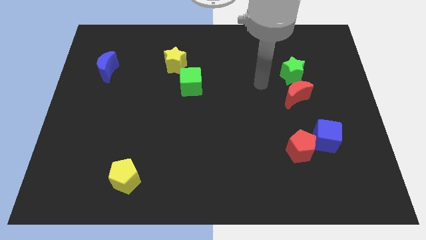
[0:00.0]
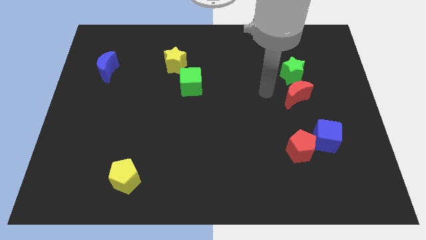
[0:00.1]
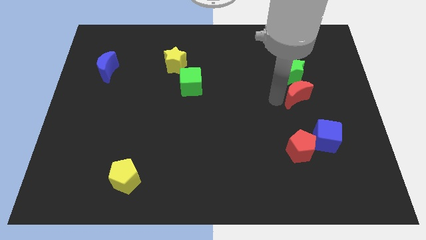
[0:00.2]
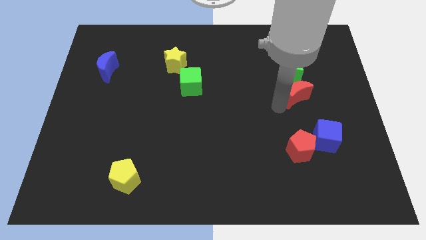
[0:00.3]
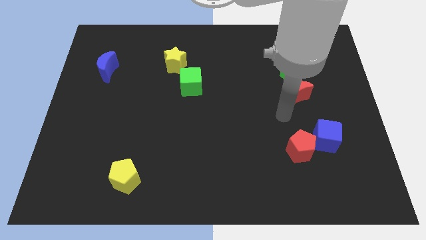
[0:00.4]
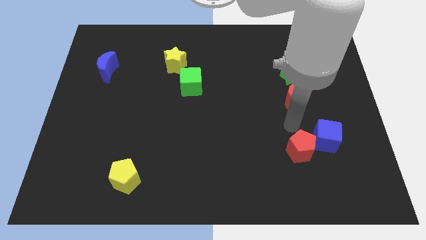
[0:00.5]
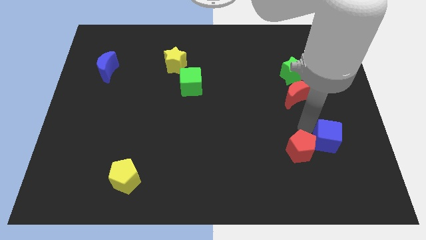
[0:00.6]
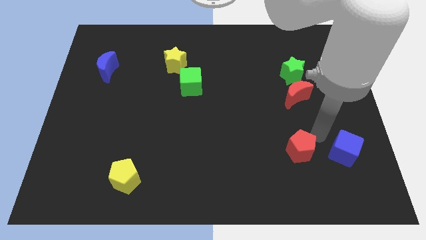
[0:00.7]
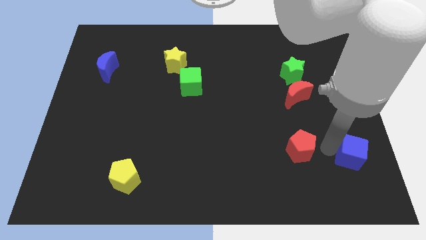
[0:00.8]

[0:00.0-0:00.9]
pull the red pentagon apart from the blue cube

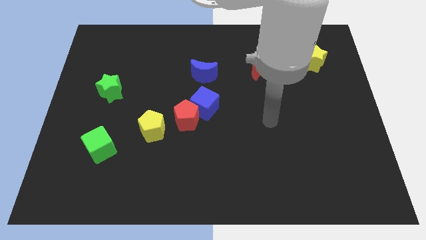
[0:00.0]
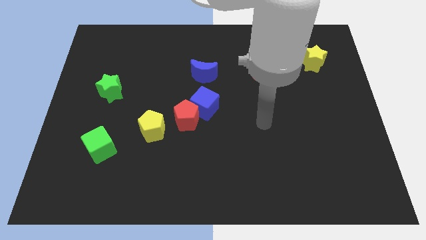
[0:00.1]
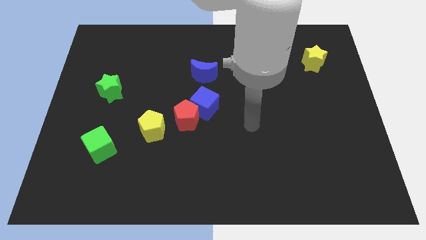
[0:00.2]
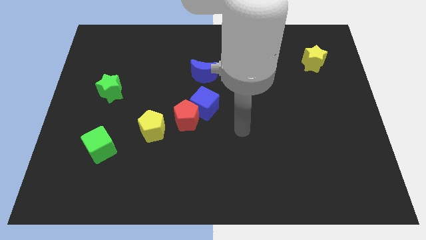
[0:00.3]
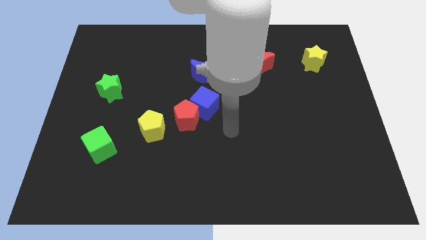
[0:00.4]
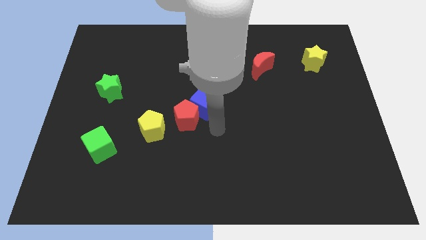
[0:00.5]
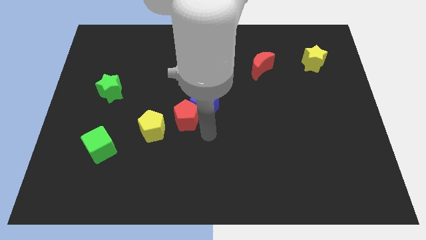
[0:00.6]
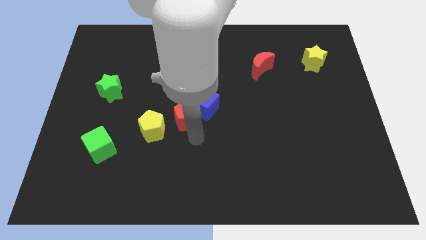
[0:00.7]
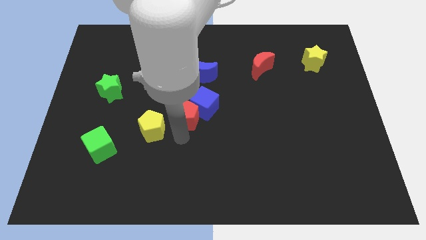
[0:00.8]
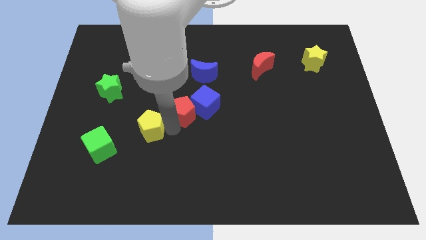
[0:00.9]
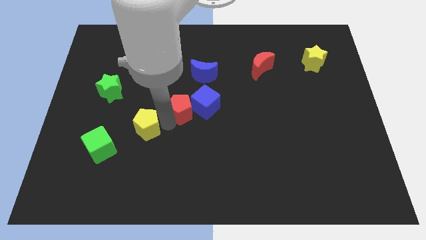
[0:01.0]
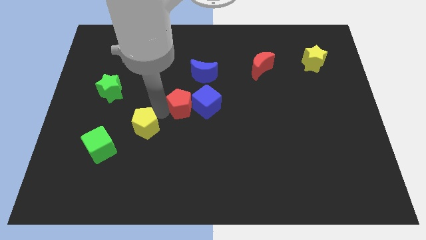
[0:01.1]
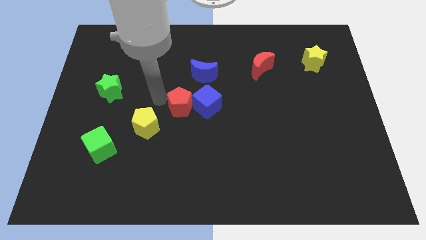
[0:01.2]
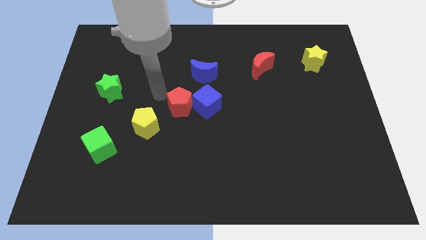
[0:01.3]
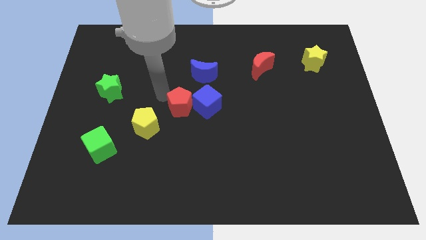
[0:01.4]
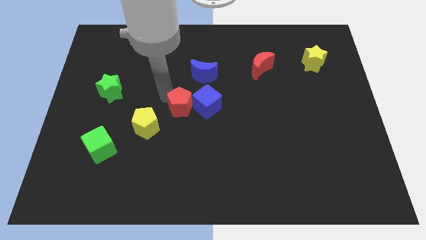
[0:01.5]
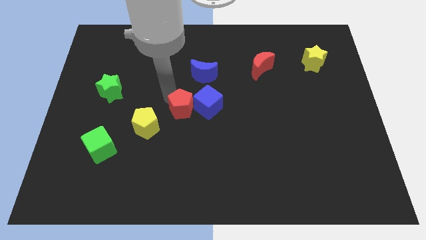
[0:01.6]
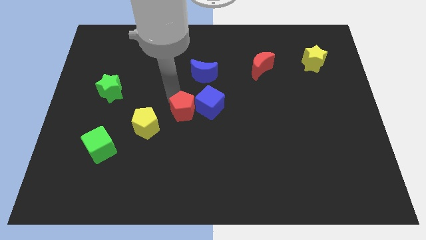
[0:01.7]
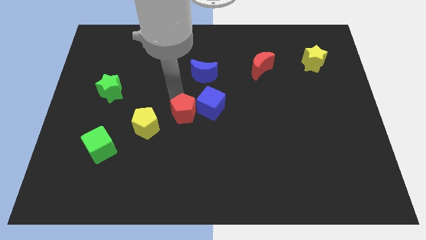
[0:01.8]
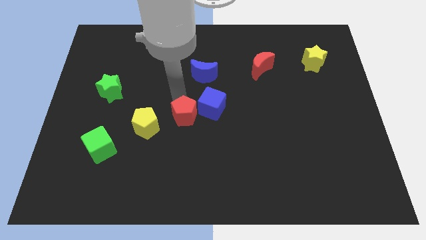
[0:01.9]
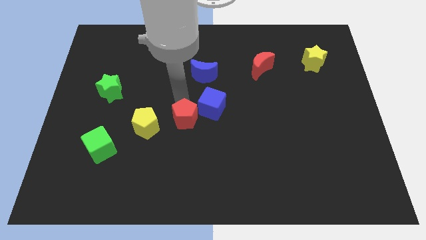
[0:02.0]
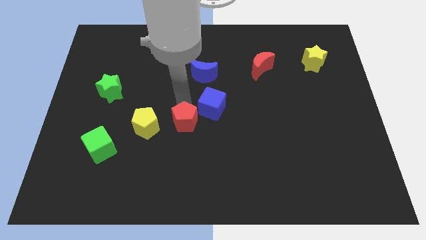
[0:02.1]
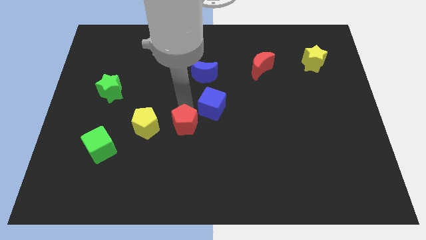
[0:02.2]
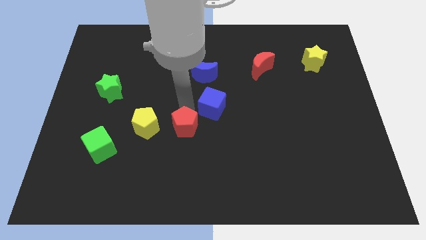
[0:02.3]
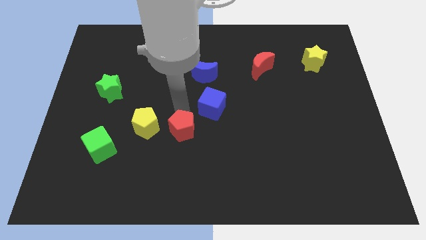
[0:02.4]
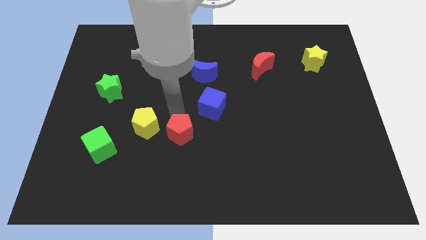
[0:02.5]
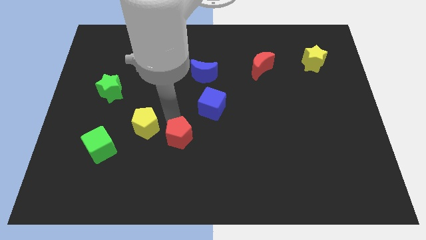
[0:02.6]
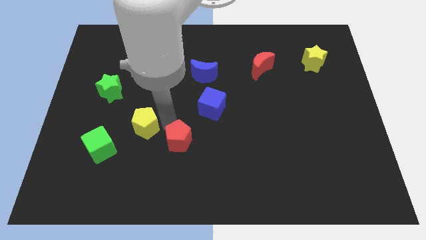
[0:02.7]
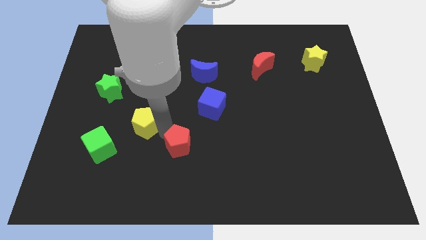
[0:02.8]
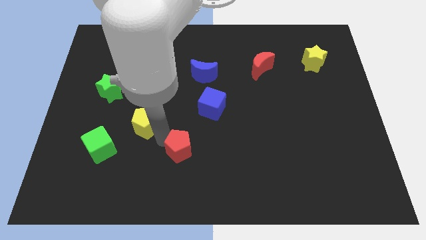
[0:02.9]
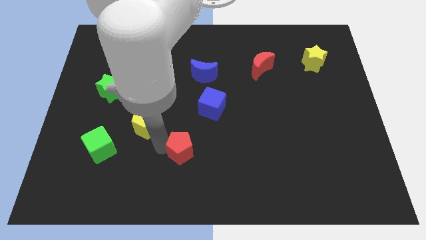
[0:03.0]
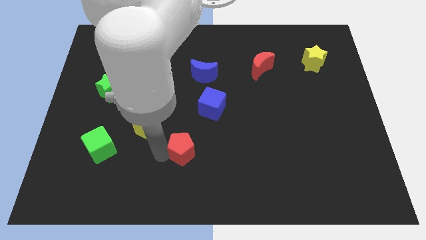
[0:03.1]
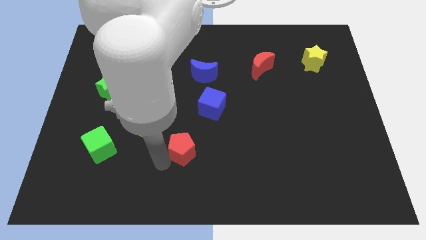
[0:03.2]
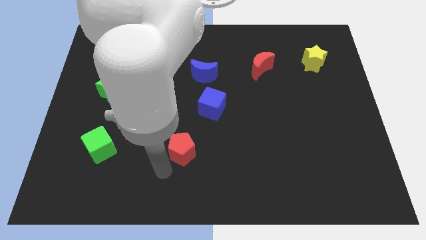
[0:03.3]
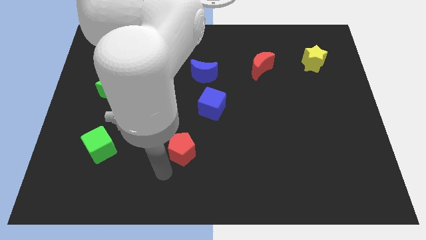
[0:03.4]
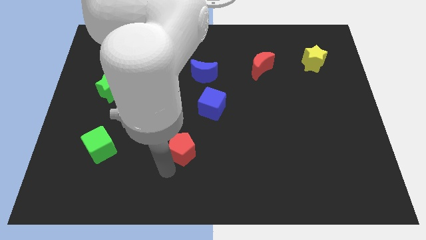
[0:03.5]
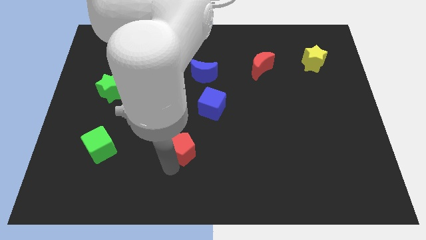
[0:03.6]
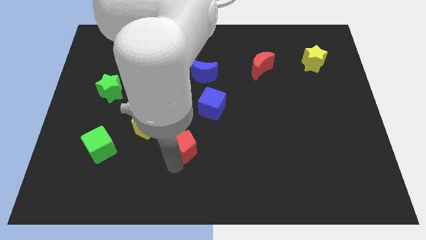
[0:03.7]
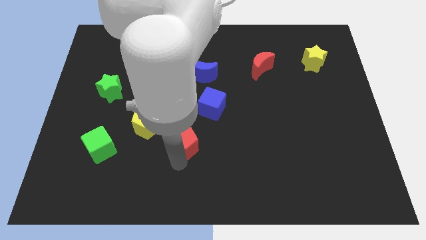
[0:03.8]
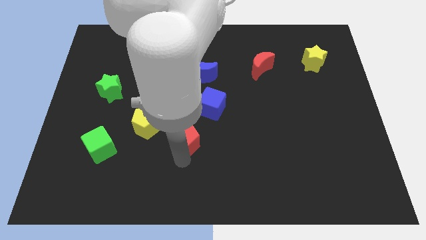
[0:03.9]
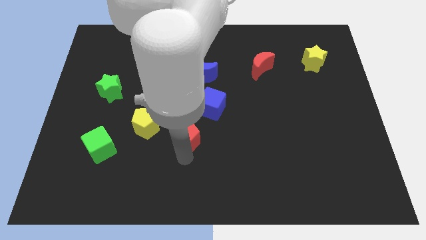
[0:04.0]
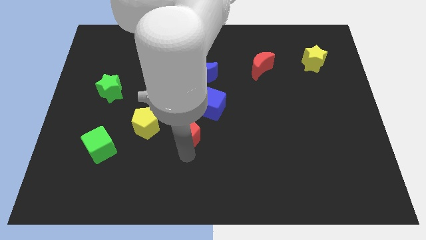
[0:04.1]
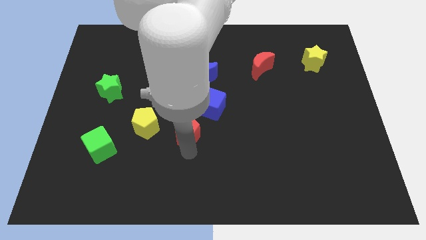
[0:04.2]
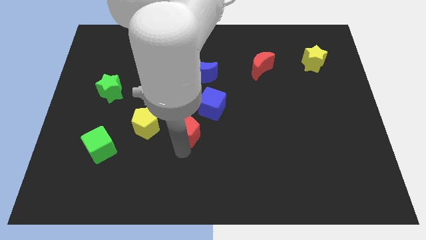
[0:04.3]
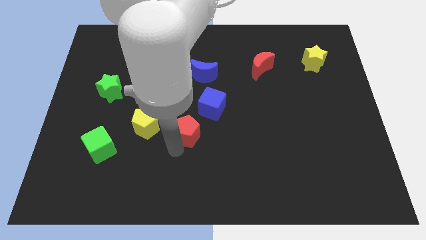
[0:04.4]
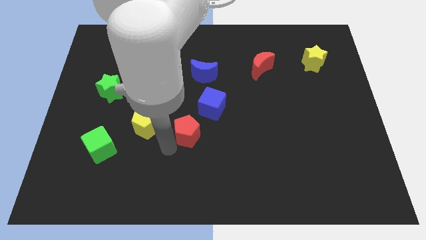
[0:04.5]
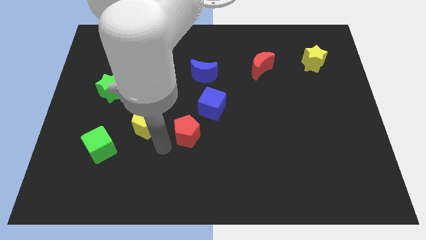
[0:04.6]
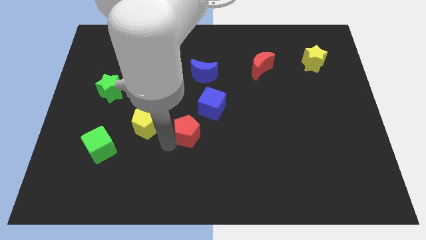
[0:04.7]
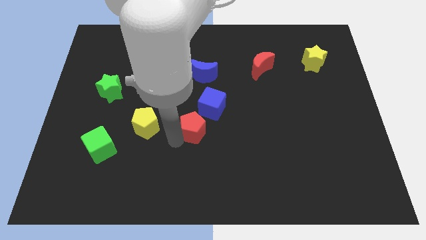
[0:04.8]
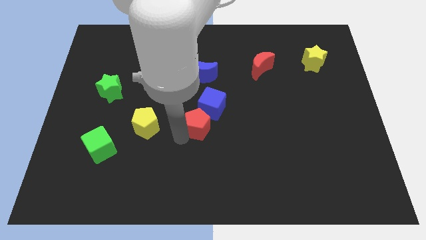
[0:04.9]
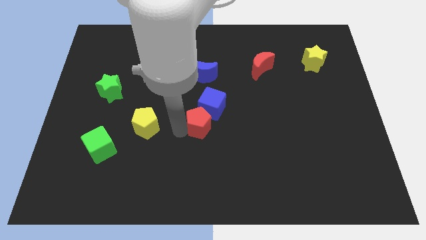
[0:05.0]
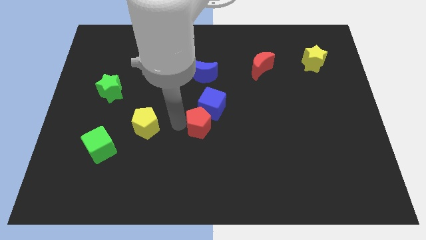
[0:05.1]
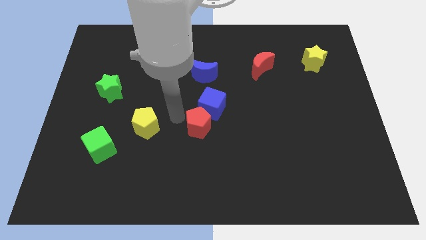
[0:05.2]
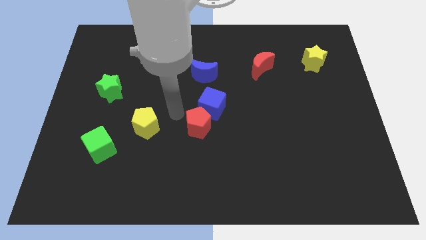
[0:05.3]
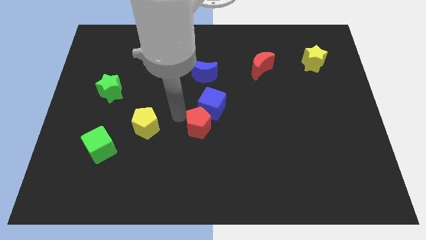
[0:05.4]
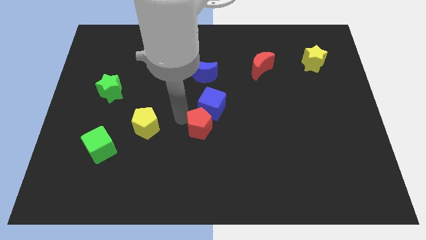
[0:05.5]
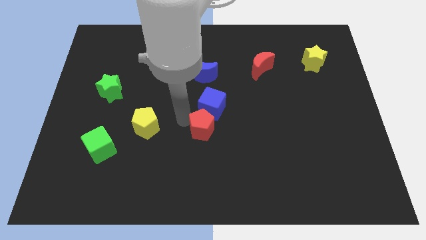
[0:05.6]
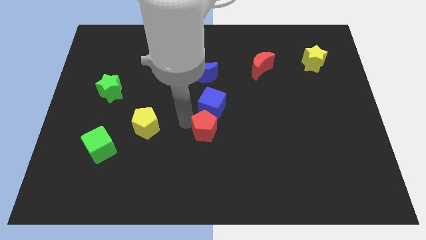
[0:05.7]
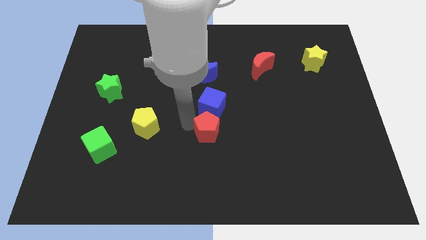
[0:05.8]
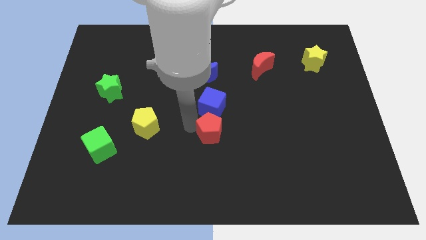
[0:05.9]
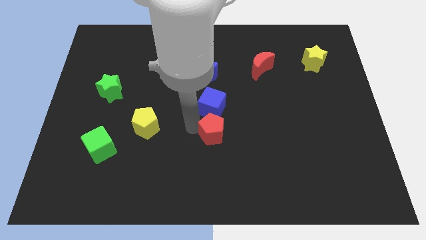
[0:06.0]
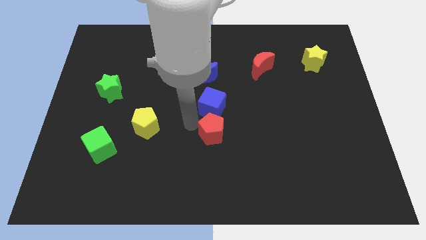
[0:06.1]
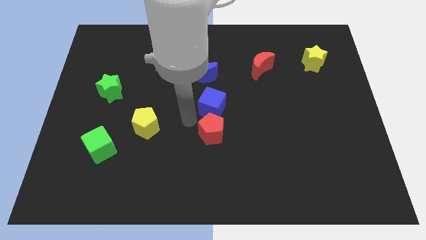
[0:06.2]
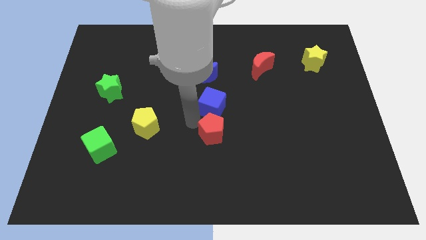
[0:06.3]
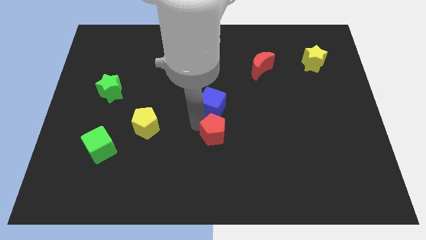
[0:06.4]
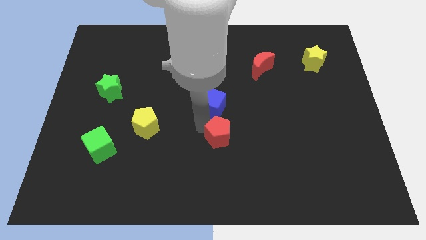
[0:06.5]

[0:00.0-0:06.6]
move the red pentagon away from the blue cube and yellow pentagon

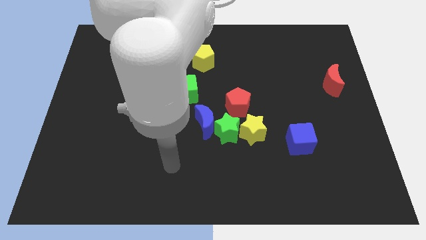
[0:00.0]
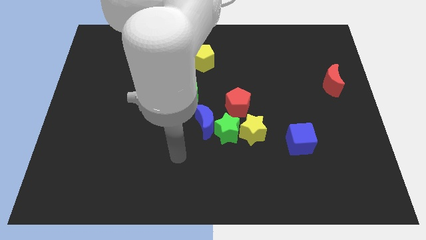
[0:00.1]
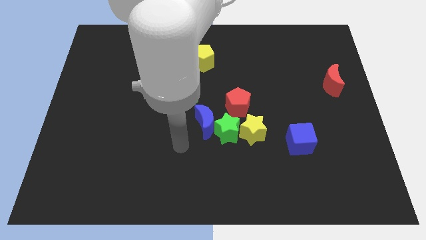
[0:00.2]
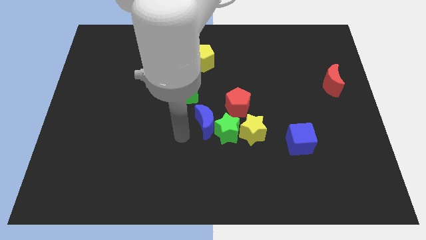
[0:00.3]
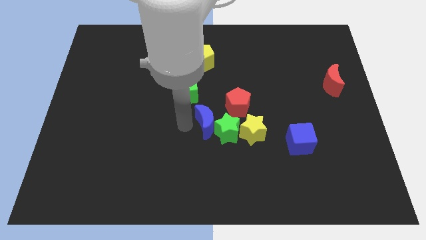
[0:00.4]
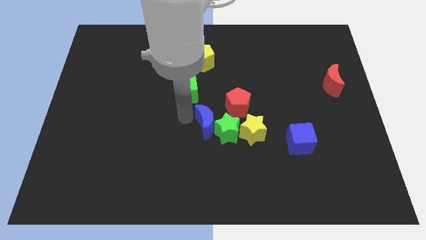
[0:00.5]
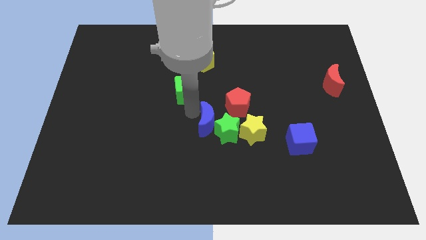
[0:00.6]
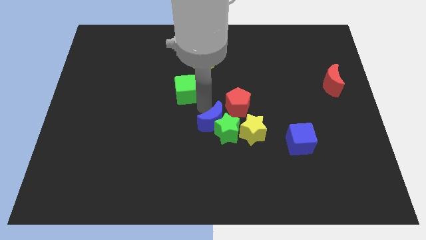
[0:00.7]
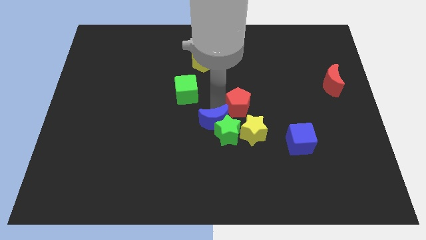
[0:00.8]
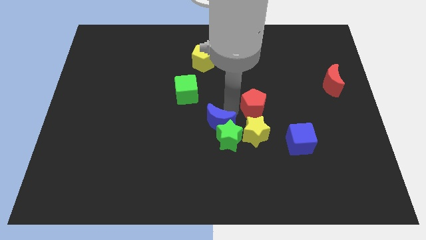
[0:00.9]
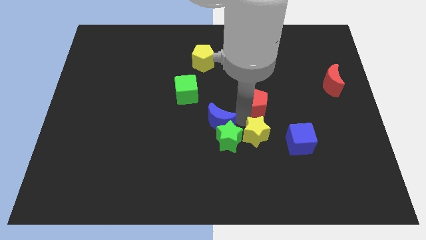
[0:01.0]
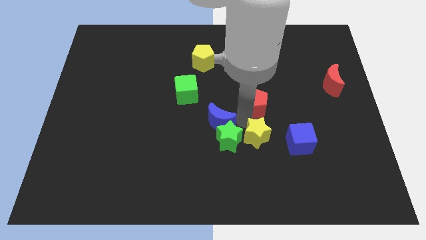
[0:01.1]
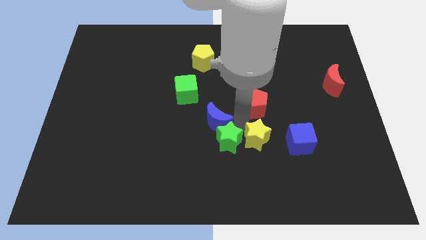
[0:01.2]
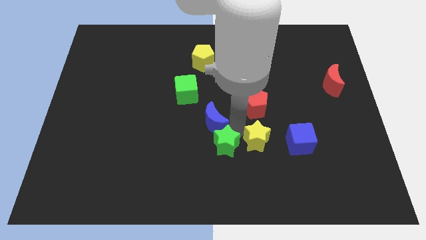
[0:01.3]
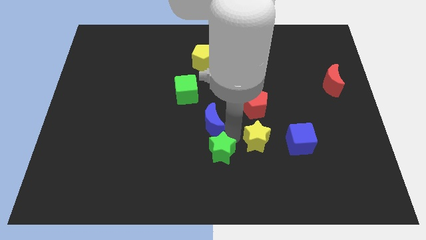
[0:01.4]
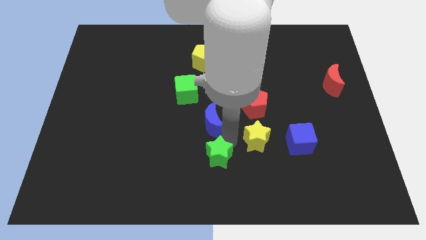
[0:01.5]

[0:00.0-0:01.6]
pull the green star apart from the blue moon, yellow star, and red pentagon
